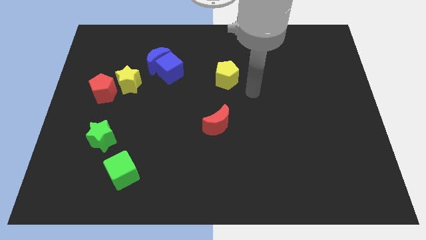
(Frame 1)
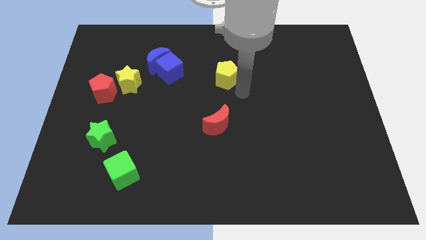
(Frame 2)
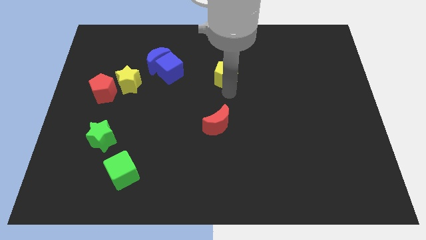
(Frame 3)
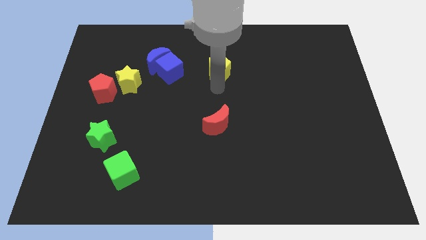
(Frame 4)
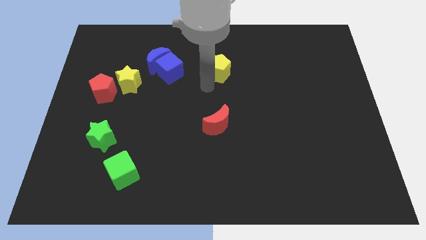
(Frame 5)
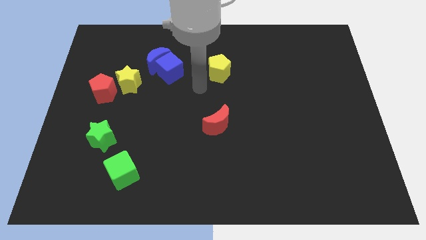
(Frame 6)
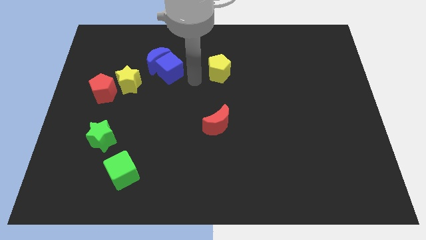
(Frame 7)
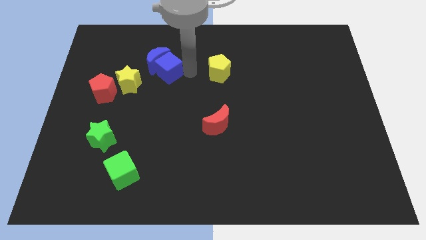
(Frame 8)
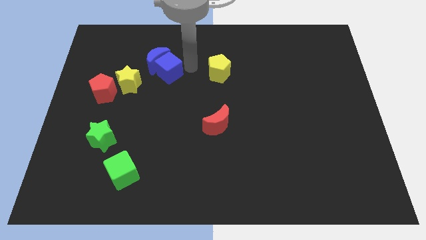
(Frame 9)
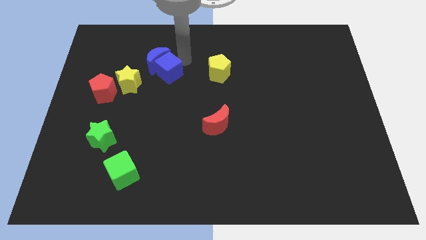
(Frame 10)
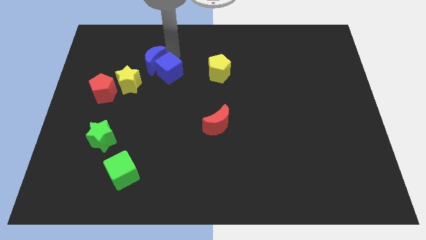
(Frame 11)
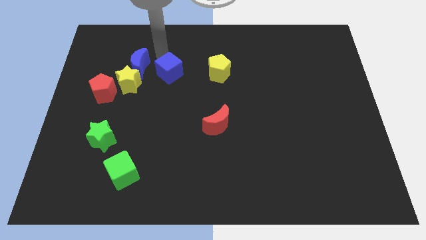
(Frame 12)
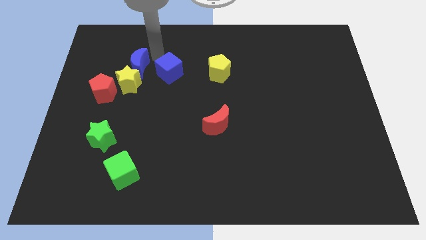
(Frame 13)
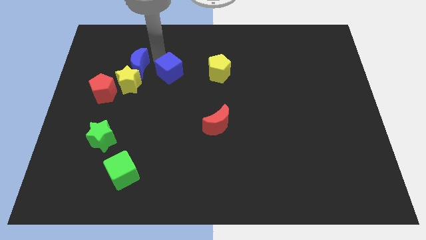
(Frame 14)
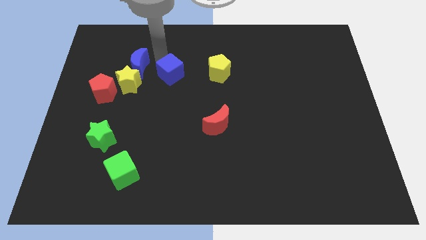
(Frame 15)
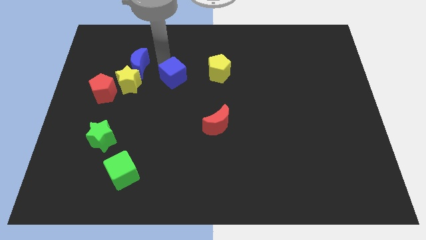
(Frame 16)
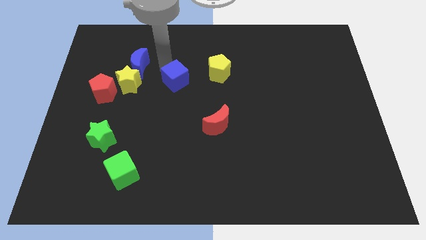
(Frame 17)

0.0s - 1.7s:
pull the blue cube apart from the blue moon

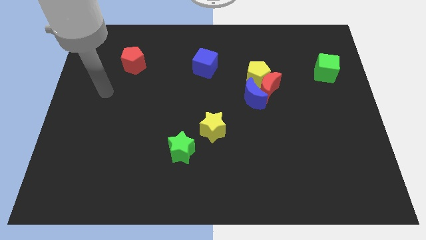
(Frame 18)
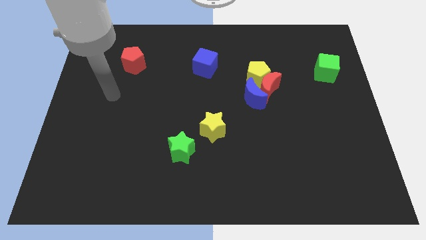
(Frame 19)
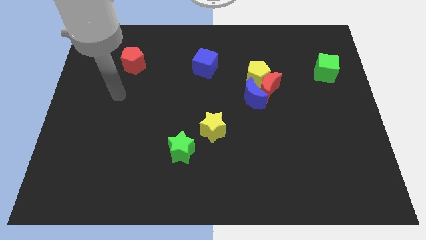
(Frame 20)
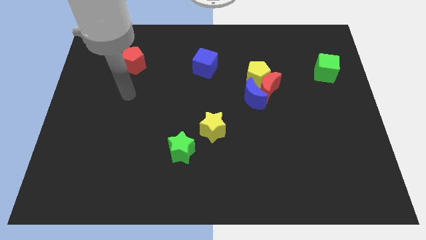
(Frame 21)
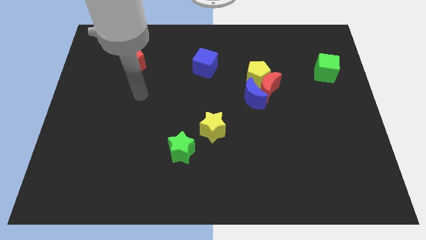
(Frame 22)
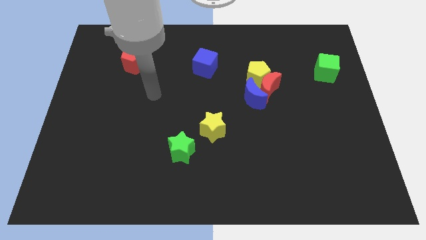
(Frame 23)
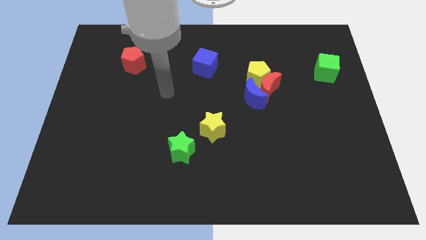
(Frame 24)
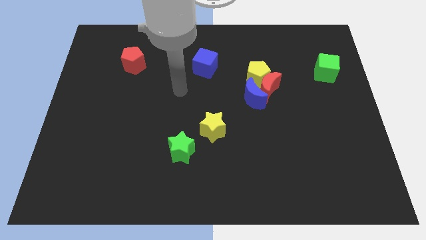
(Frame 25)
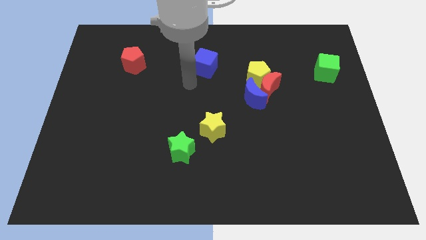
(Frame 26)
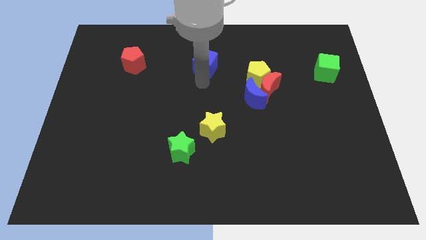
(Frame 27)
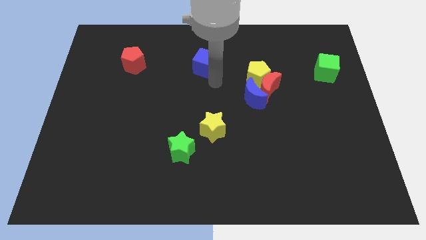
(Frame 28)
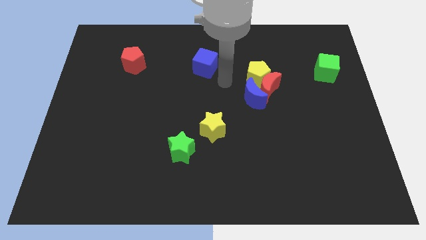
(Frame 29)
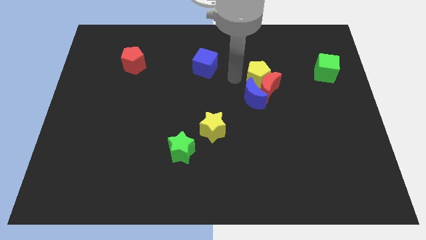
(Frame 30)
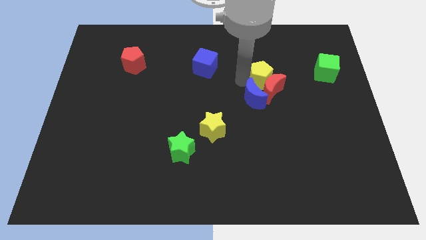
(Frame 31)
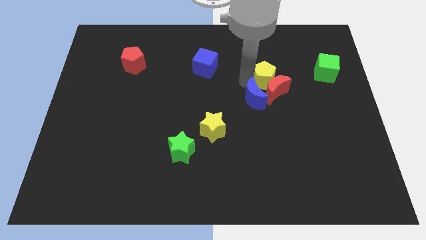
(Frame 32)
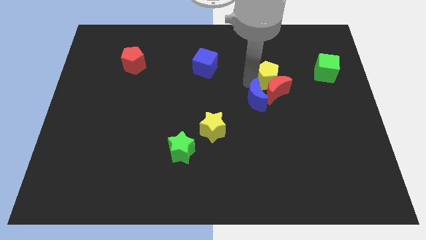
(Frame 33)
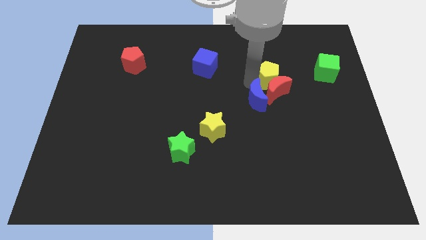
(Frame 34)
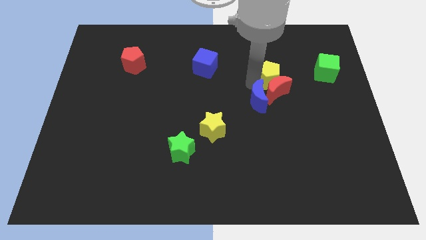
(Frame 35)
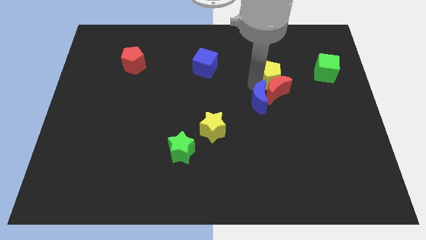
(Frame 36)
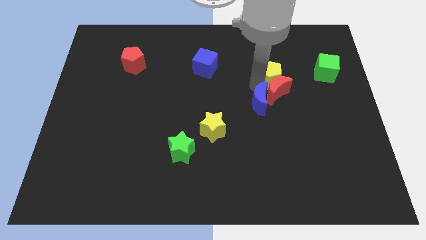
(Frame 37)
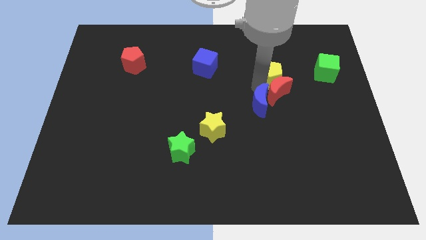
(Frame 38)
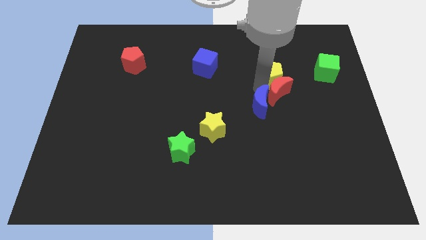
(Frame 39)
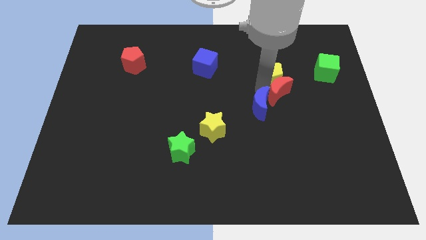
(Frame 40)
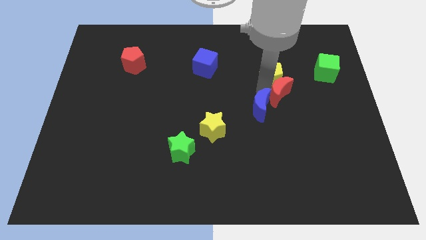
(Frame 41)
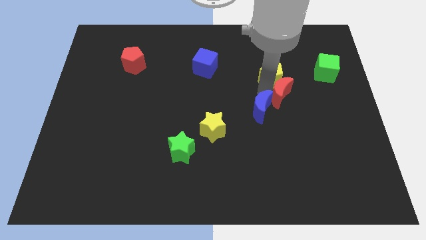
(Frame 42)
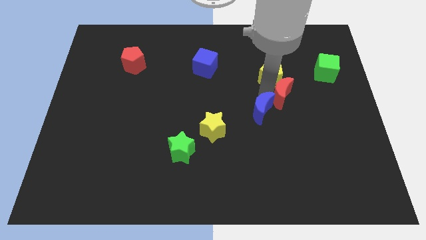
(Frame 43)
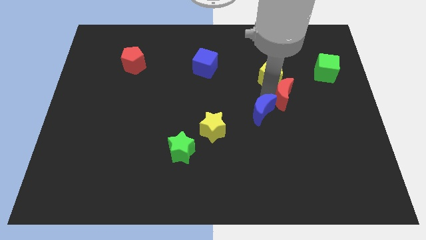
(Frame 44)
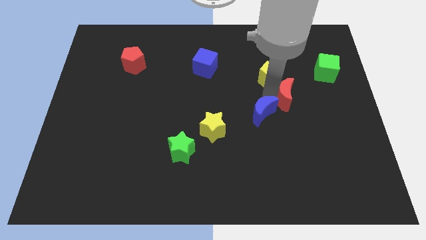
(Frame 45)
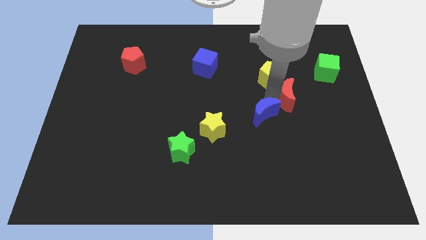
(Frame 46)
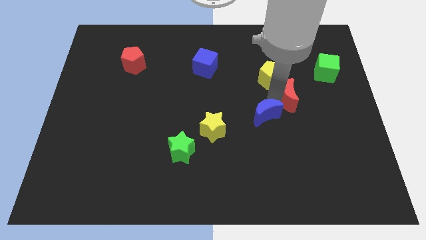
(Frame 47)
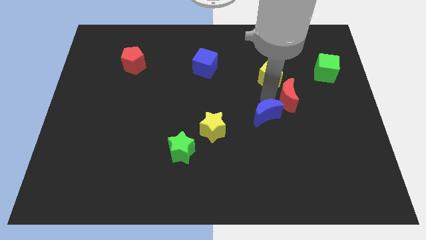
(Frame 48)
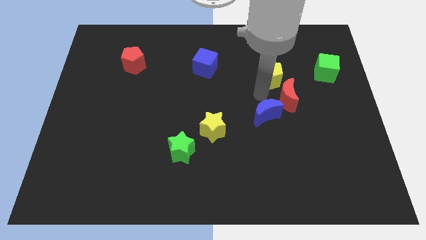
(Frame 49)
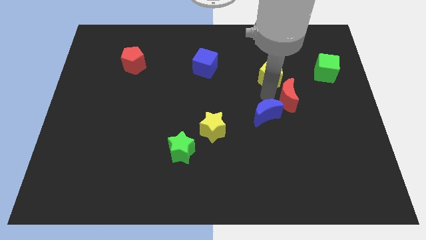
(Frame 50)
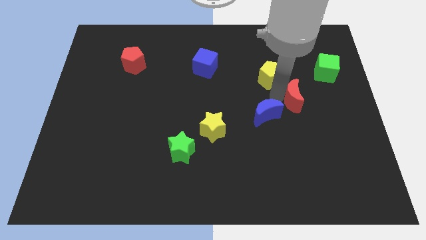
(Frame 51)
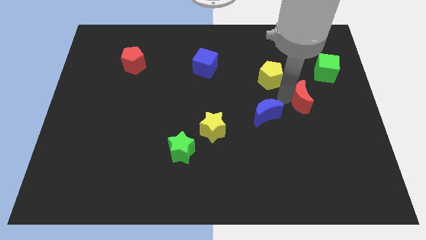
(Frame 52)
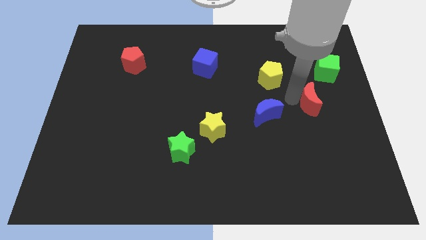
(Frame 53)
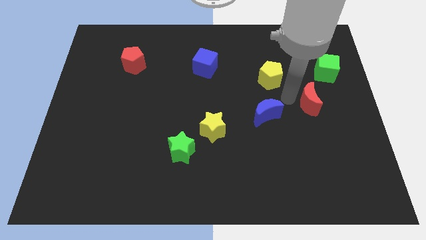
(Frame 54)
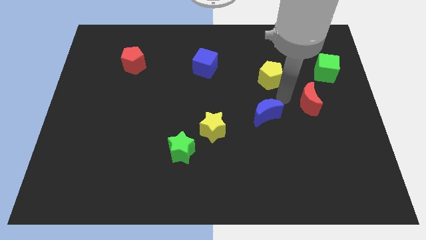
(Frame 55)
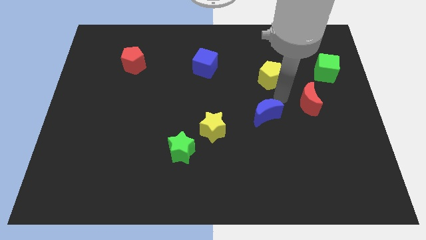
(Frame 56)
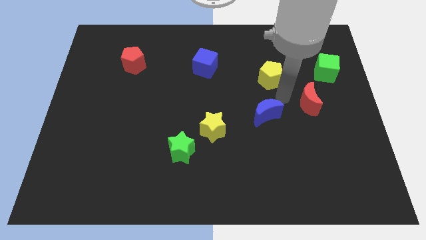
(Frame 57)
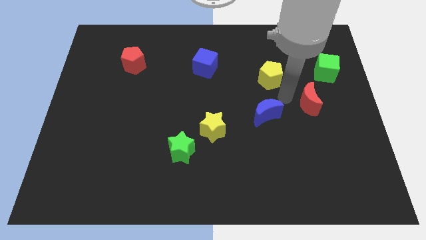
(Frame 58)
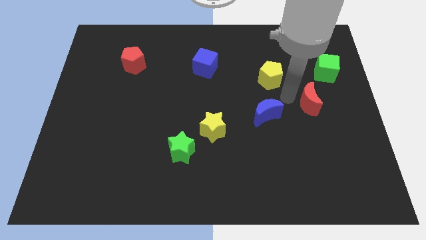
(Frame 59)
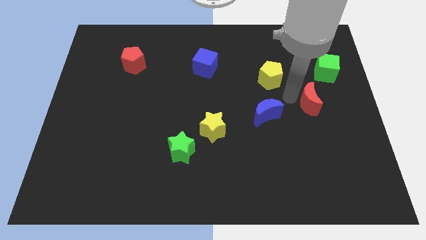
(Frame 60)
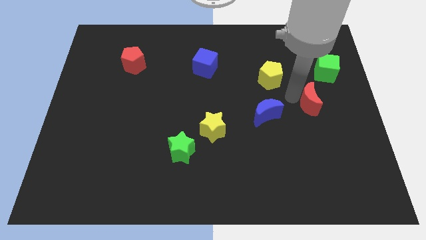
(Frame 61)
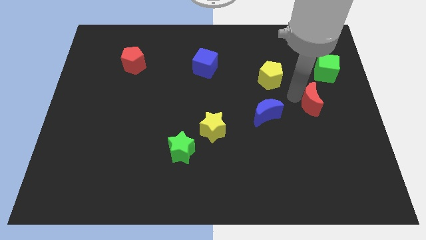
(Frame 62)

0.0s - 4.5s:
move the red moon away from the yellow pentagon and blue moon

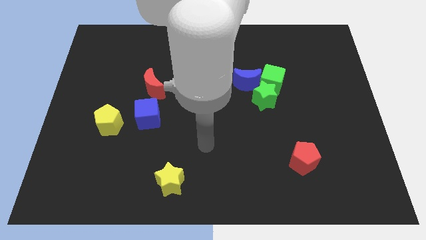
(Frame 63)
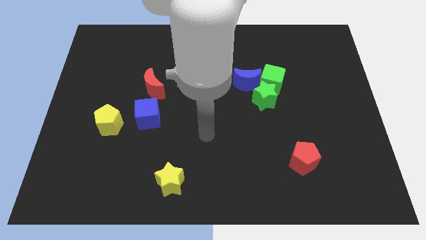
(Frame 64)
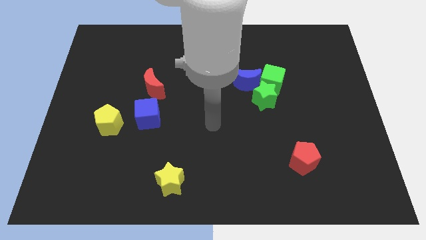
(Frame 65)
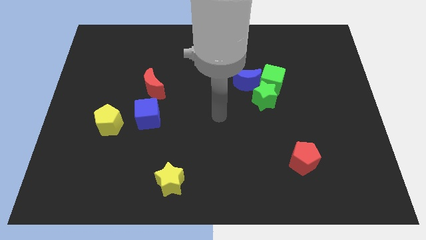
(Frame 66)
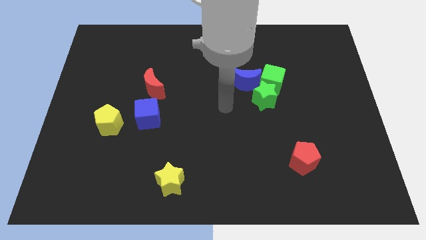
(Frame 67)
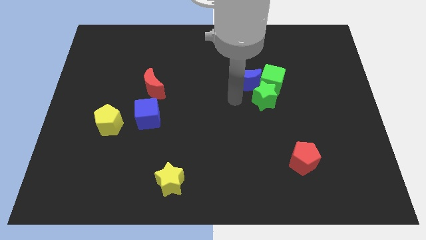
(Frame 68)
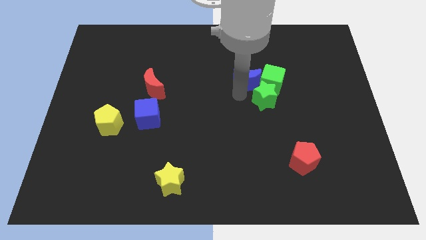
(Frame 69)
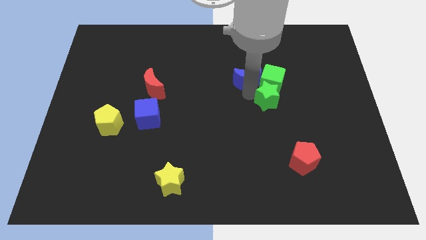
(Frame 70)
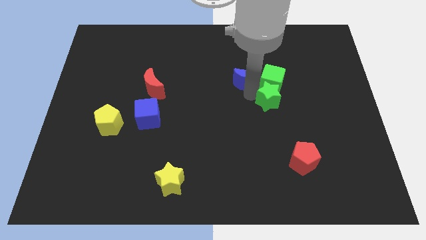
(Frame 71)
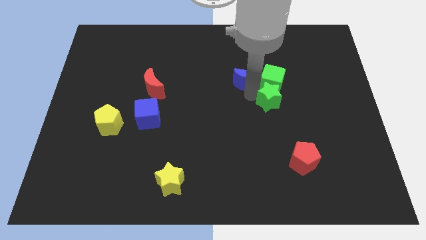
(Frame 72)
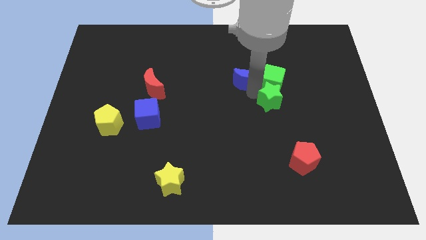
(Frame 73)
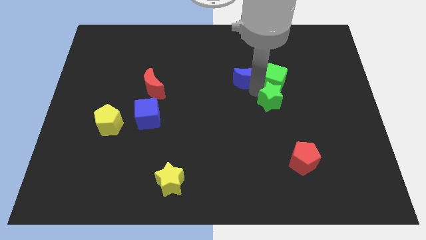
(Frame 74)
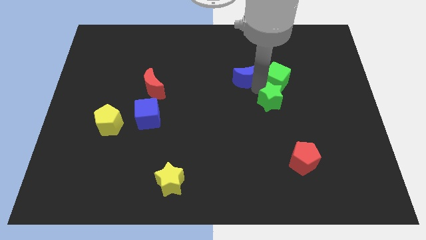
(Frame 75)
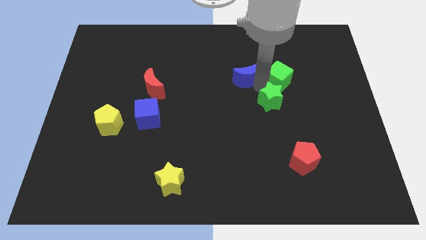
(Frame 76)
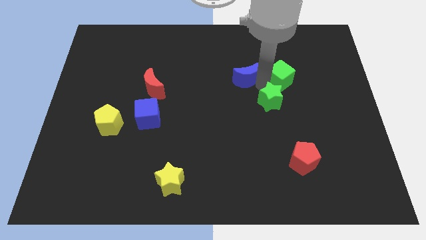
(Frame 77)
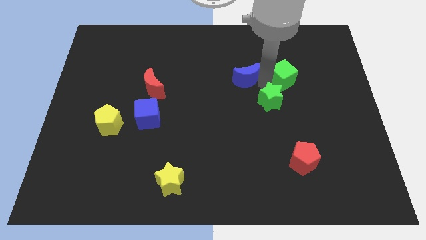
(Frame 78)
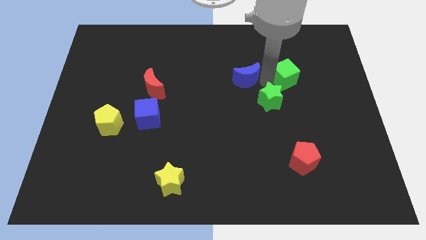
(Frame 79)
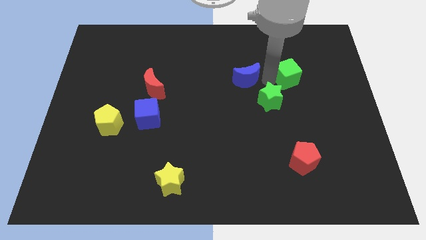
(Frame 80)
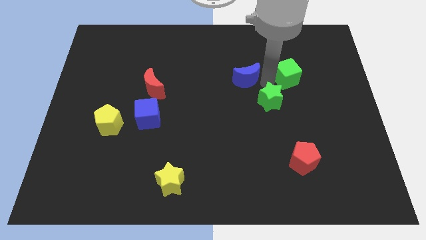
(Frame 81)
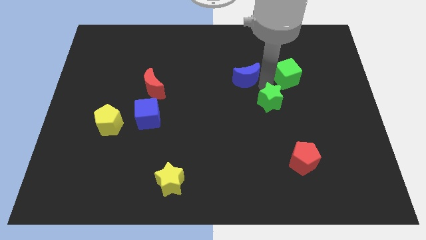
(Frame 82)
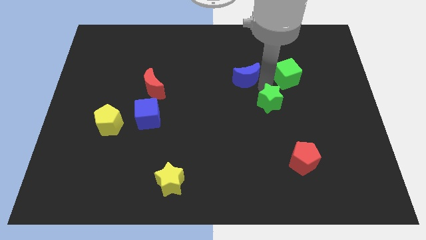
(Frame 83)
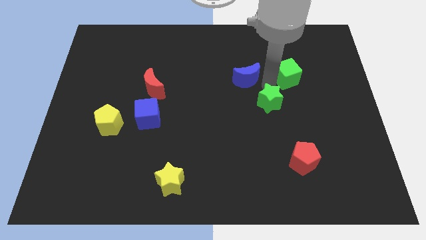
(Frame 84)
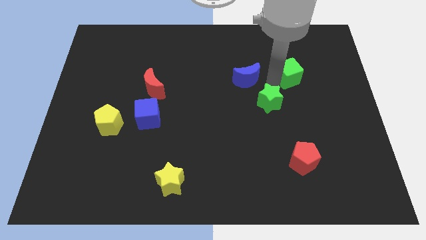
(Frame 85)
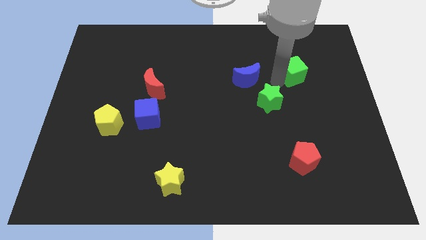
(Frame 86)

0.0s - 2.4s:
separate the green cube from the green star and blue moon

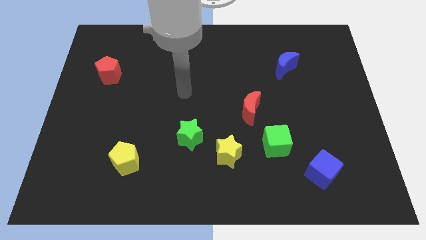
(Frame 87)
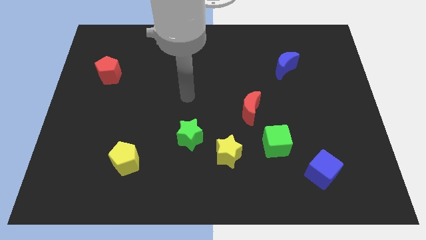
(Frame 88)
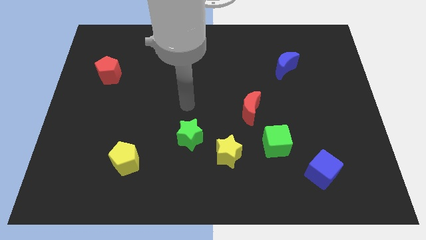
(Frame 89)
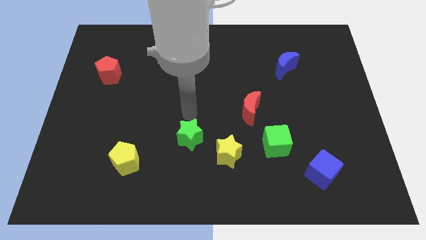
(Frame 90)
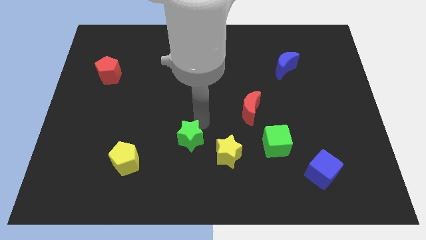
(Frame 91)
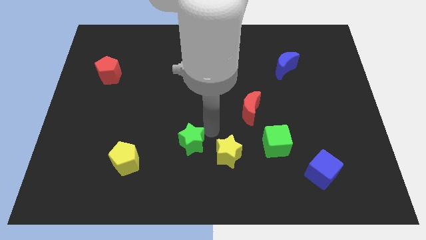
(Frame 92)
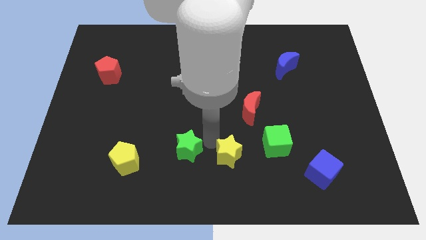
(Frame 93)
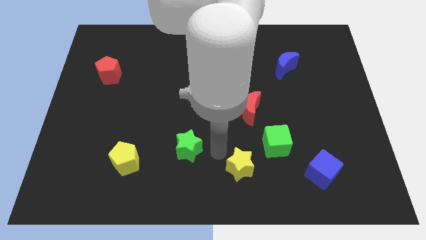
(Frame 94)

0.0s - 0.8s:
move the green star away from the yellow star
